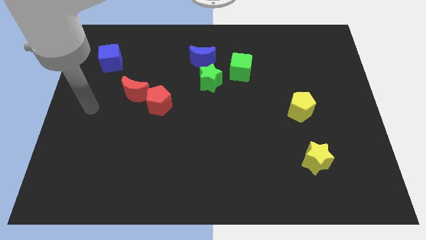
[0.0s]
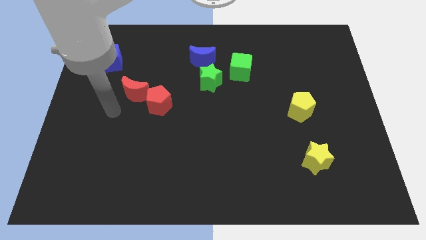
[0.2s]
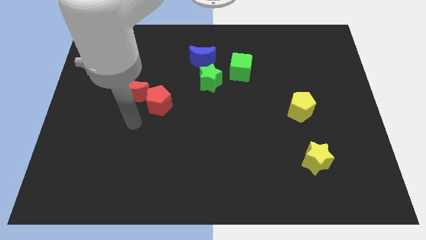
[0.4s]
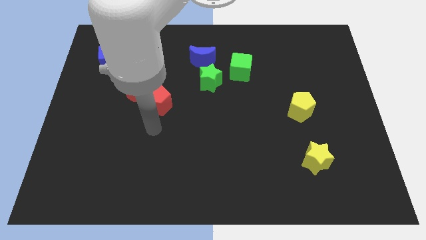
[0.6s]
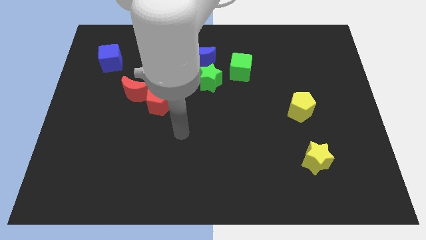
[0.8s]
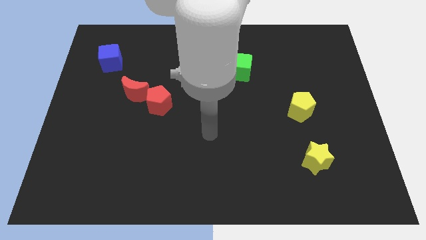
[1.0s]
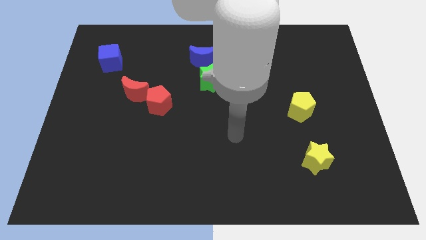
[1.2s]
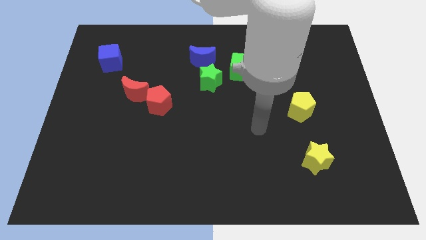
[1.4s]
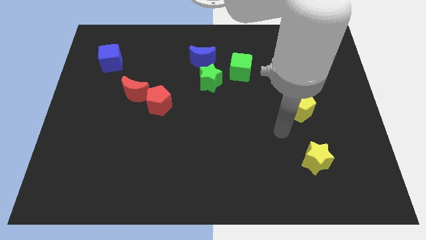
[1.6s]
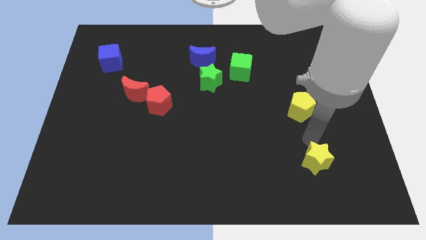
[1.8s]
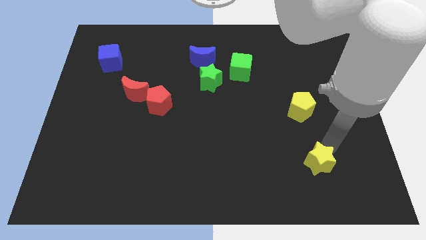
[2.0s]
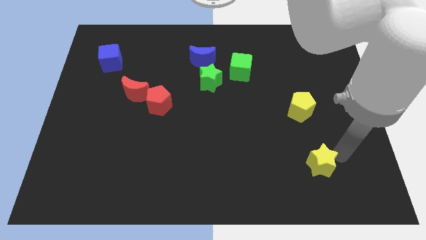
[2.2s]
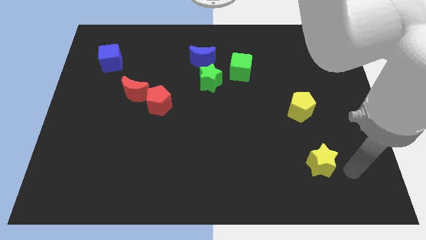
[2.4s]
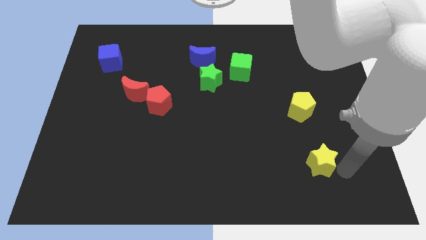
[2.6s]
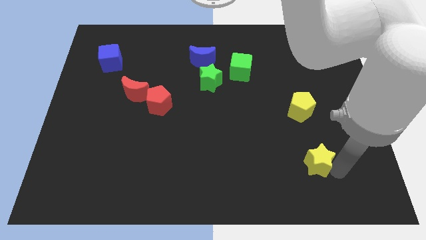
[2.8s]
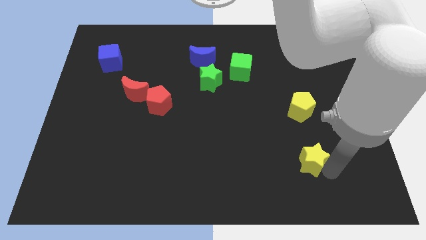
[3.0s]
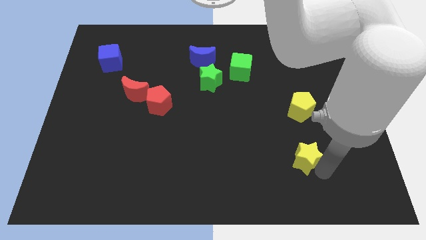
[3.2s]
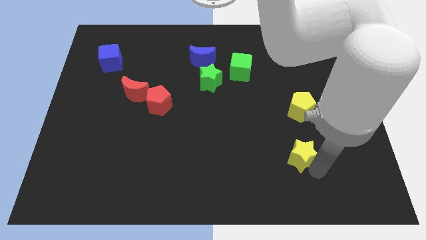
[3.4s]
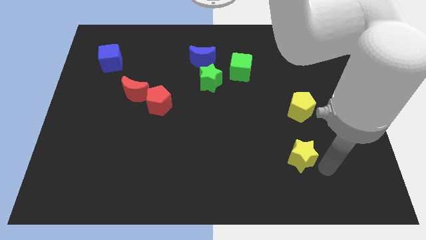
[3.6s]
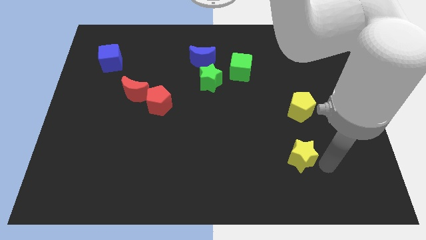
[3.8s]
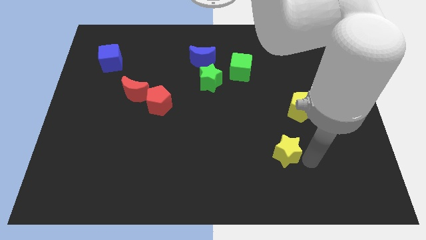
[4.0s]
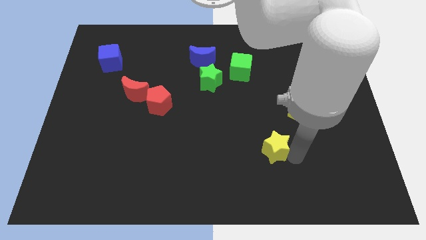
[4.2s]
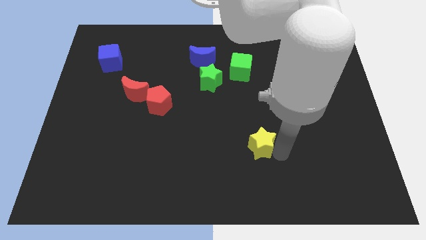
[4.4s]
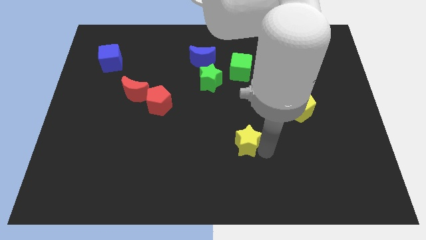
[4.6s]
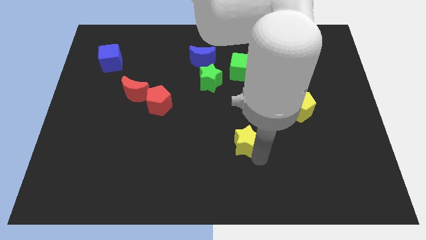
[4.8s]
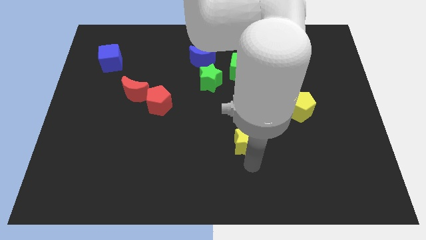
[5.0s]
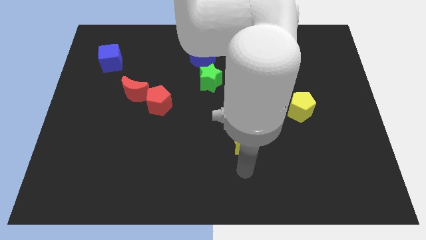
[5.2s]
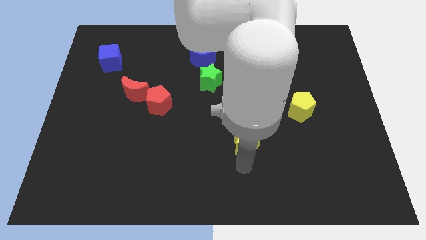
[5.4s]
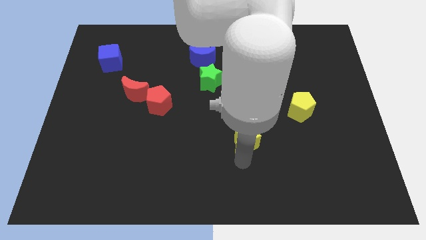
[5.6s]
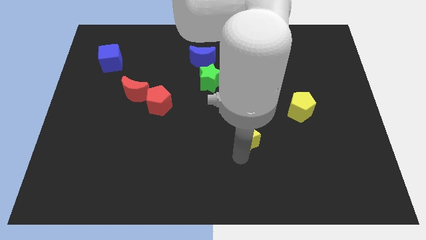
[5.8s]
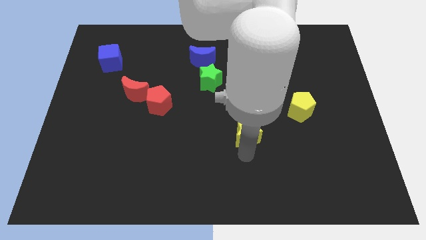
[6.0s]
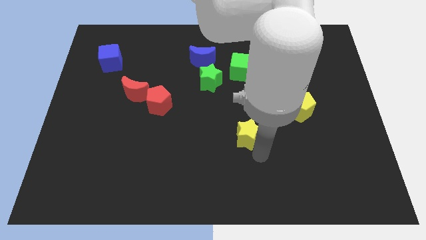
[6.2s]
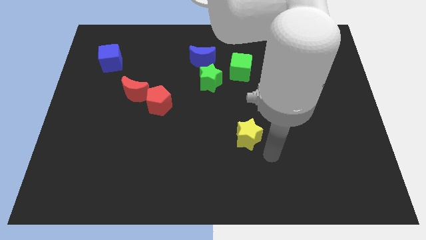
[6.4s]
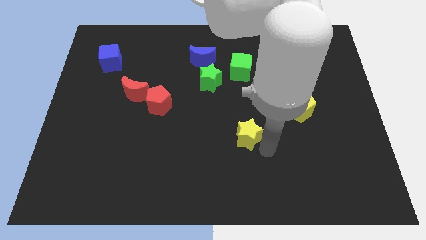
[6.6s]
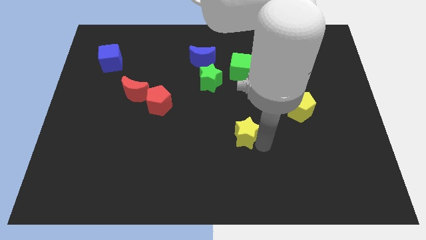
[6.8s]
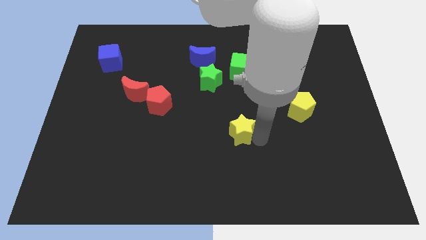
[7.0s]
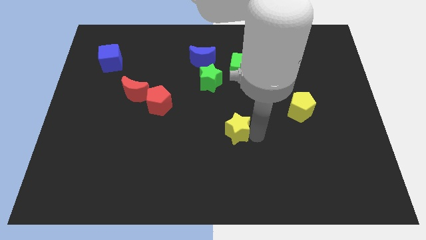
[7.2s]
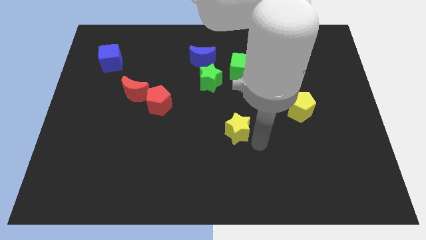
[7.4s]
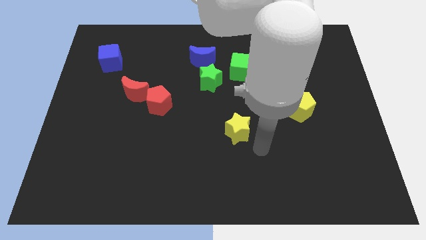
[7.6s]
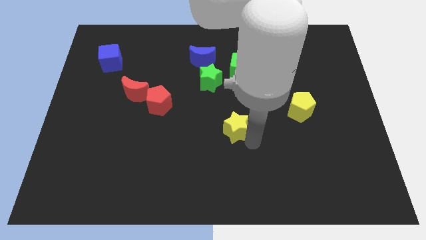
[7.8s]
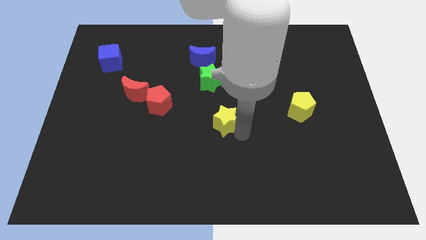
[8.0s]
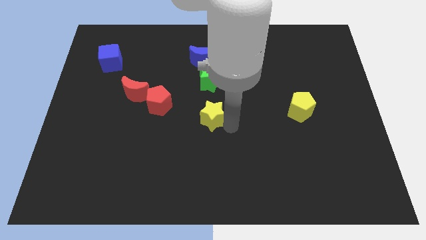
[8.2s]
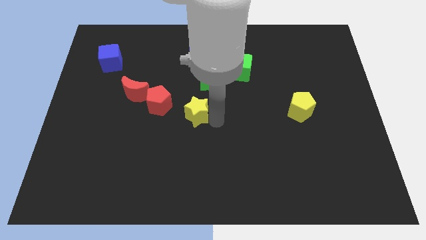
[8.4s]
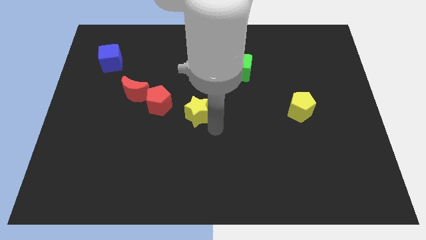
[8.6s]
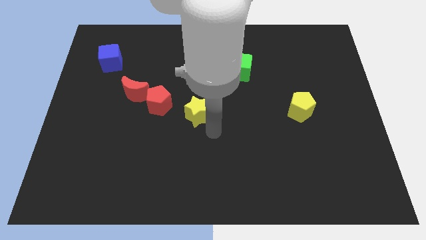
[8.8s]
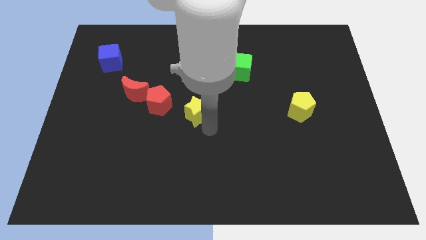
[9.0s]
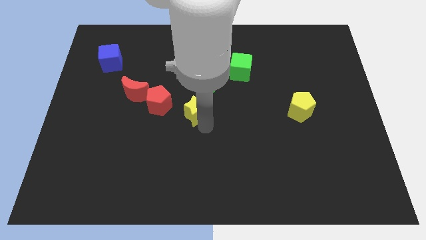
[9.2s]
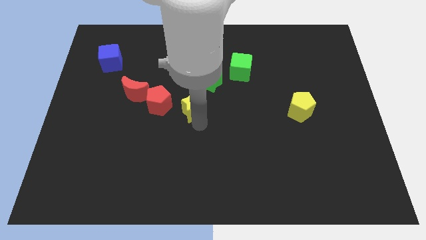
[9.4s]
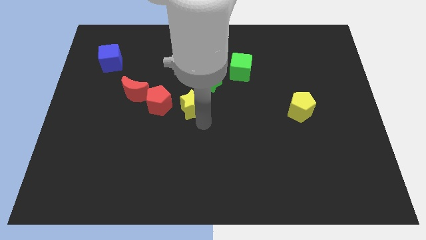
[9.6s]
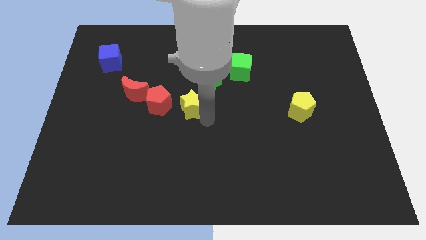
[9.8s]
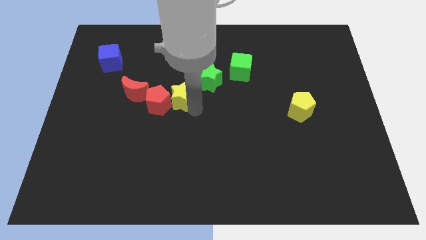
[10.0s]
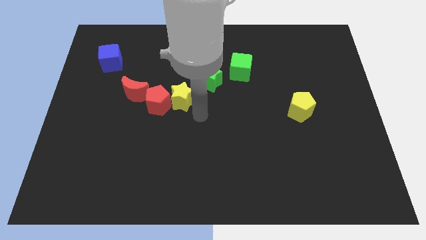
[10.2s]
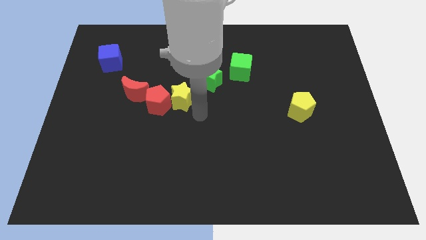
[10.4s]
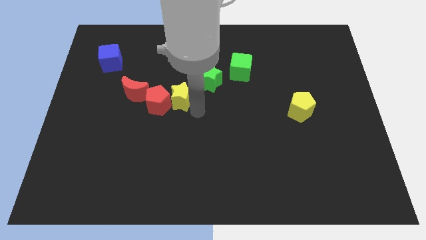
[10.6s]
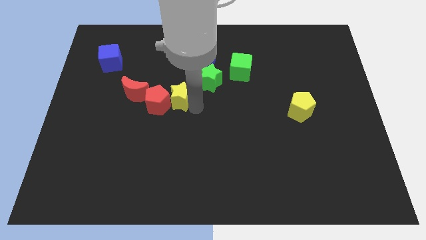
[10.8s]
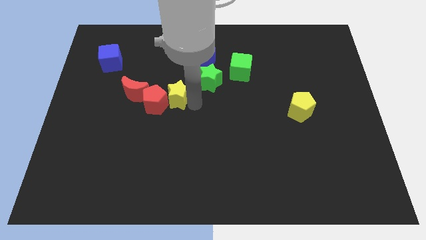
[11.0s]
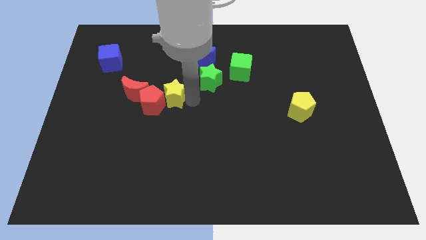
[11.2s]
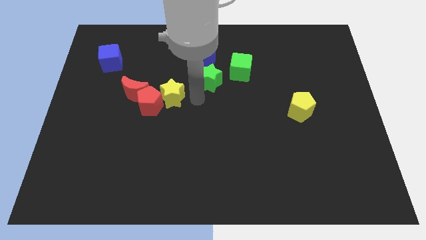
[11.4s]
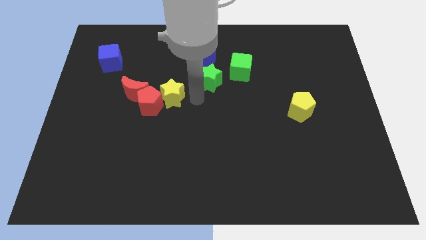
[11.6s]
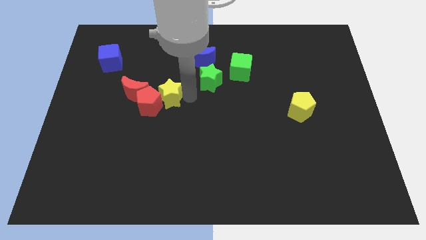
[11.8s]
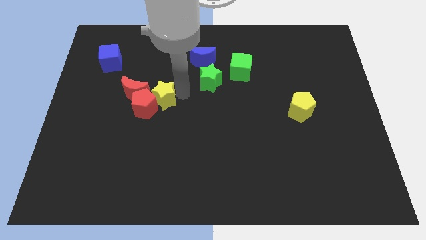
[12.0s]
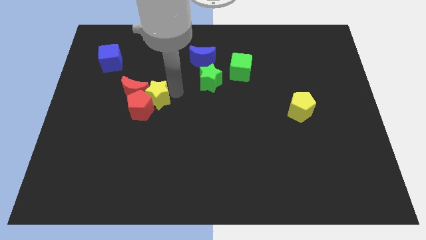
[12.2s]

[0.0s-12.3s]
push the yellow star close to the red moon

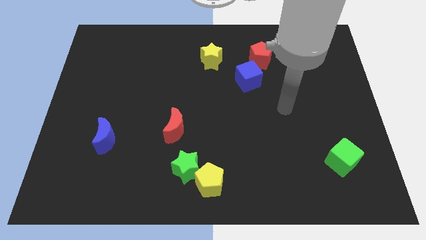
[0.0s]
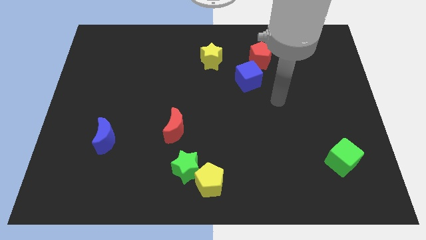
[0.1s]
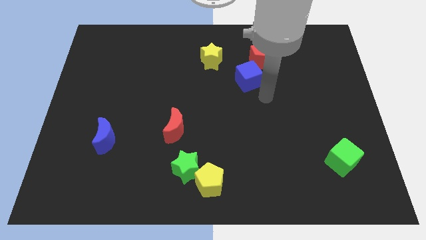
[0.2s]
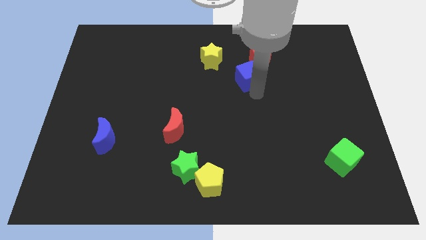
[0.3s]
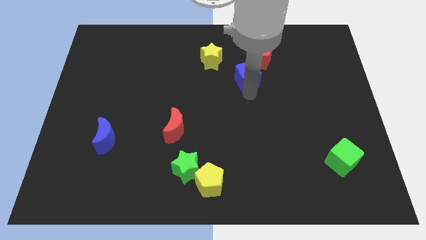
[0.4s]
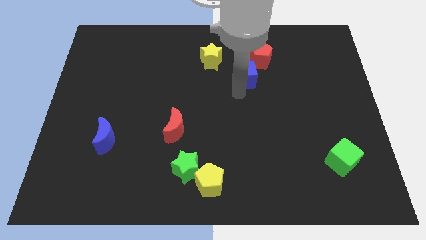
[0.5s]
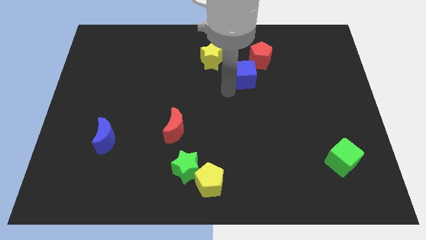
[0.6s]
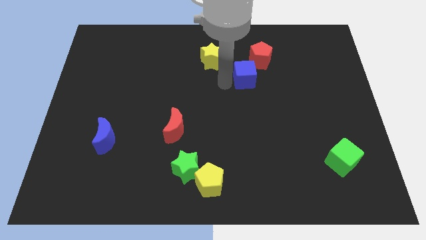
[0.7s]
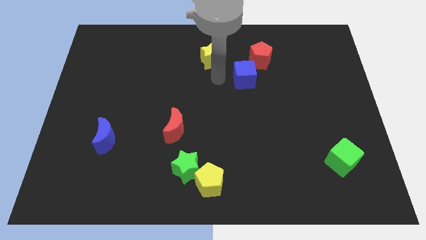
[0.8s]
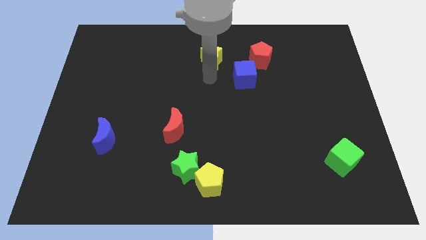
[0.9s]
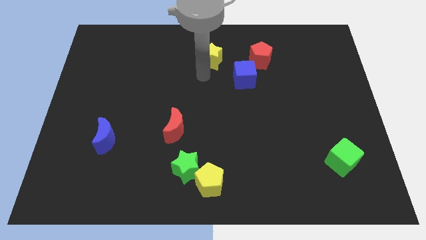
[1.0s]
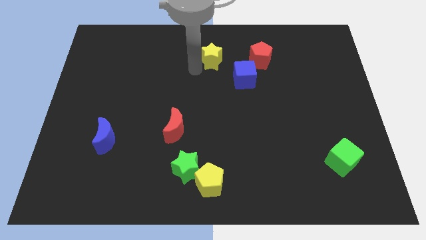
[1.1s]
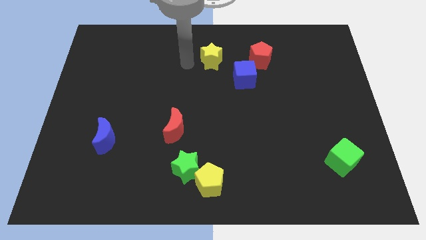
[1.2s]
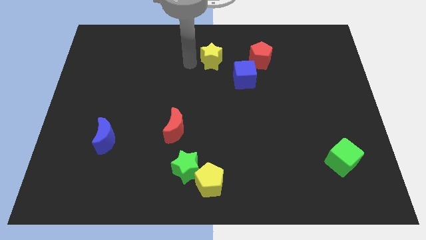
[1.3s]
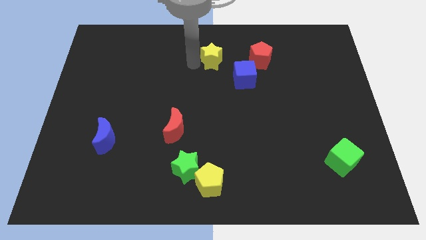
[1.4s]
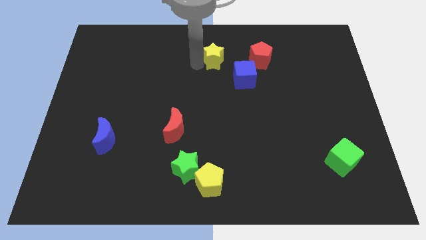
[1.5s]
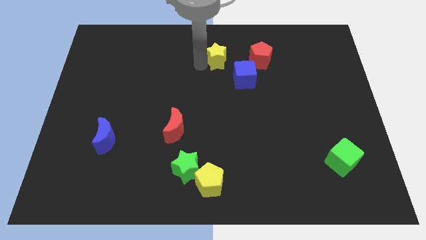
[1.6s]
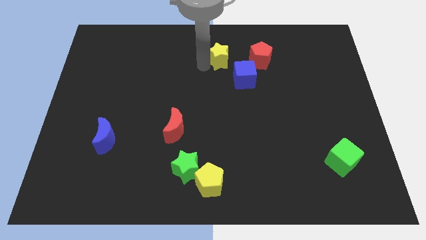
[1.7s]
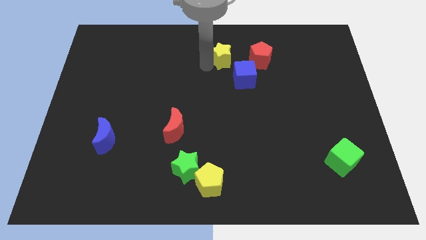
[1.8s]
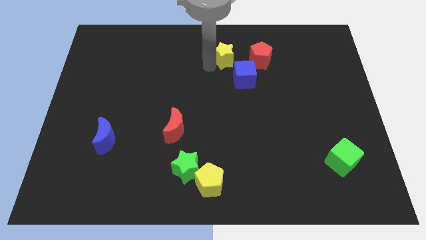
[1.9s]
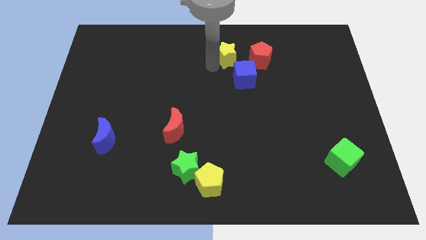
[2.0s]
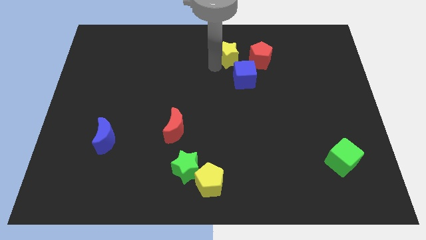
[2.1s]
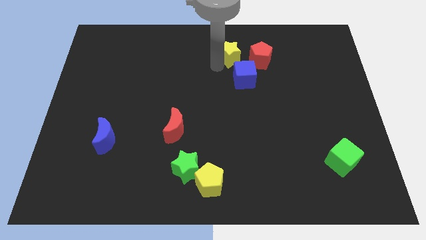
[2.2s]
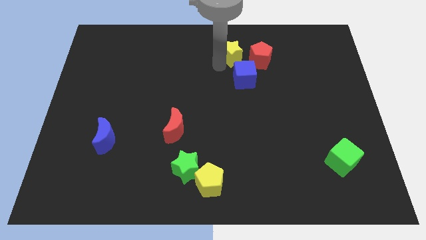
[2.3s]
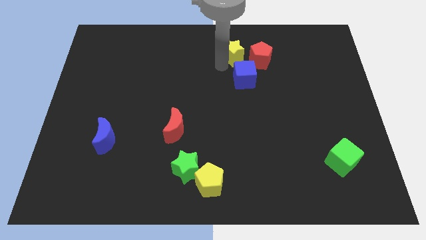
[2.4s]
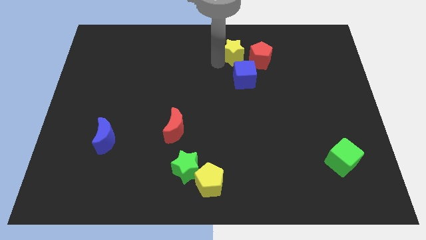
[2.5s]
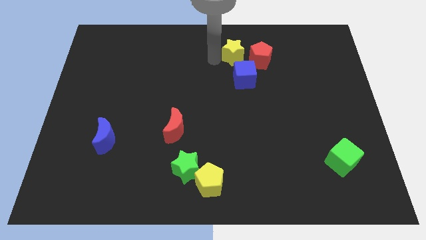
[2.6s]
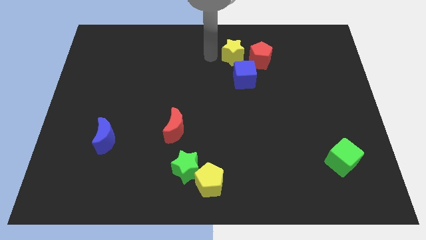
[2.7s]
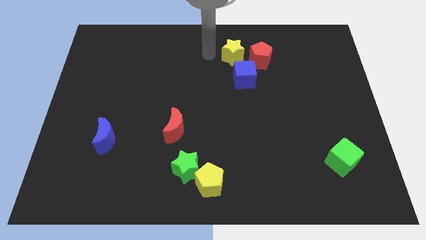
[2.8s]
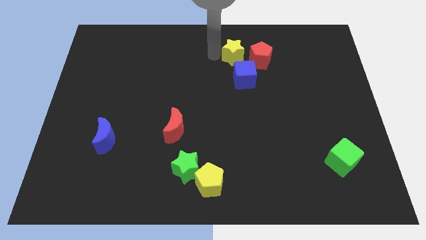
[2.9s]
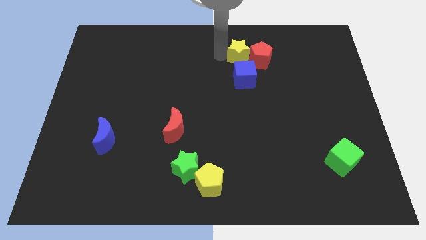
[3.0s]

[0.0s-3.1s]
put the yellow star to the red pentagon
